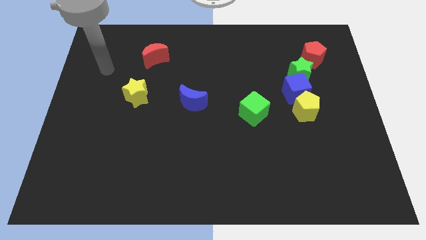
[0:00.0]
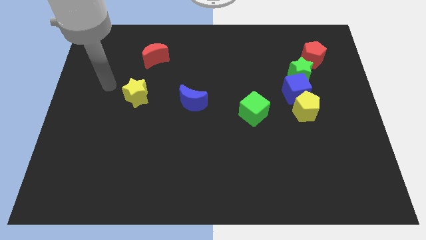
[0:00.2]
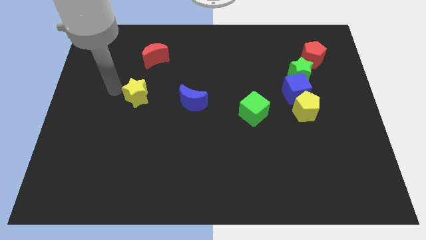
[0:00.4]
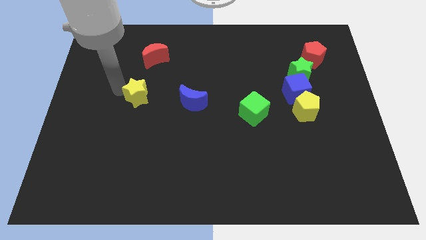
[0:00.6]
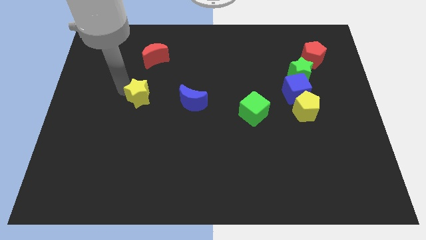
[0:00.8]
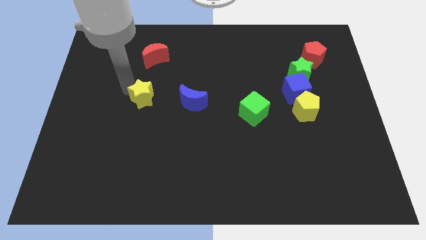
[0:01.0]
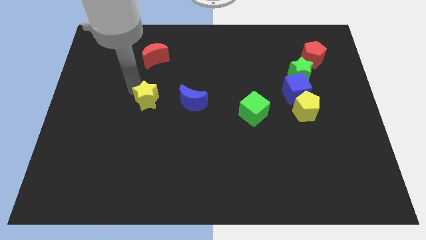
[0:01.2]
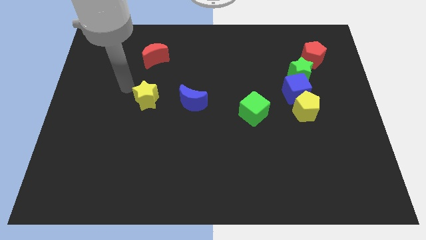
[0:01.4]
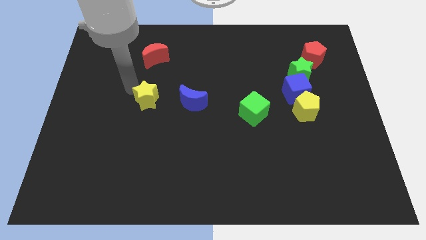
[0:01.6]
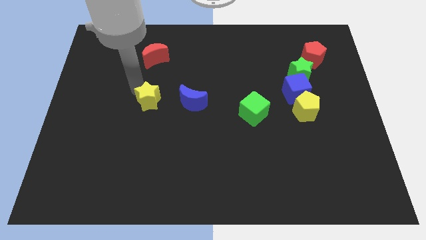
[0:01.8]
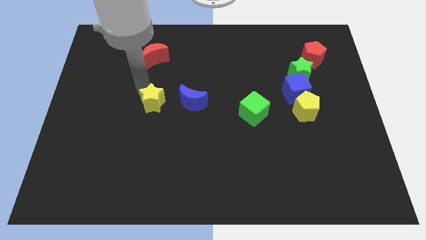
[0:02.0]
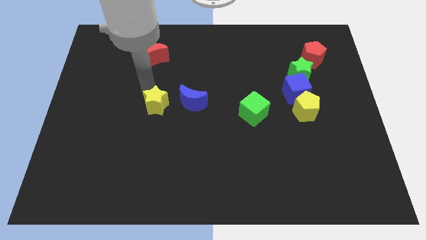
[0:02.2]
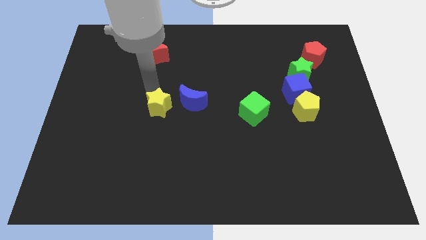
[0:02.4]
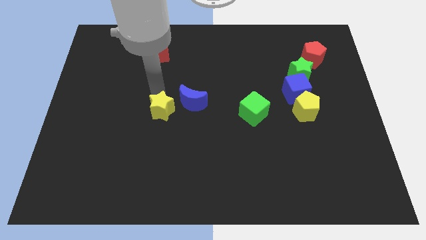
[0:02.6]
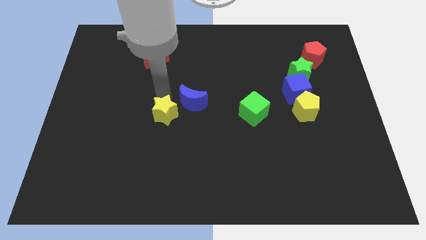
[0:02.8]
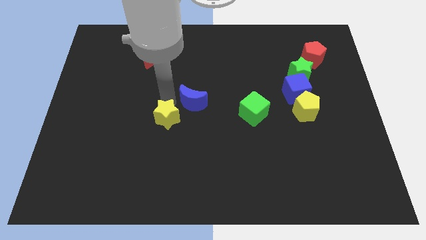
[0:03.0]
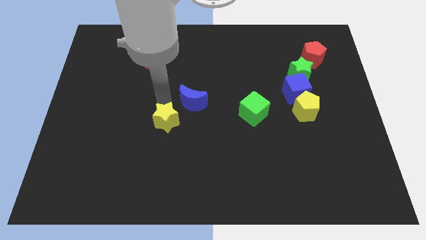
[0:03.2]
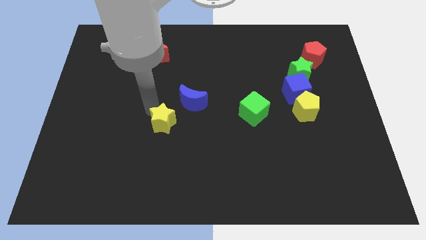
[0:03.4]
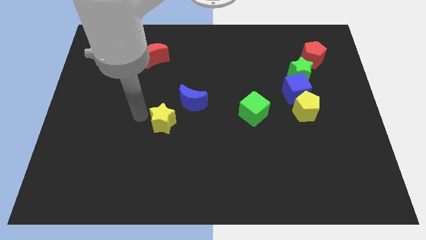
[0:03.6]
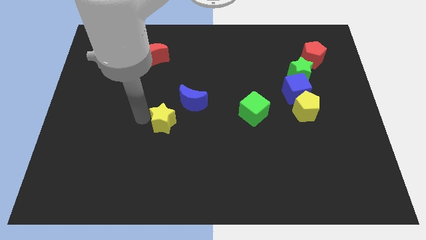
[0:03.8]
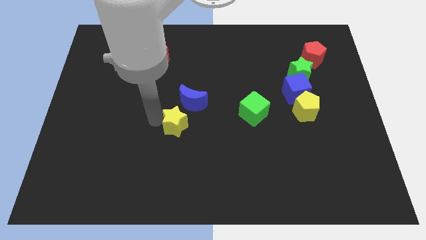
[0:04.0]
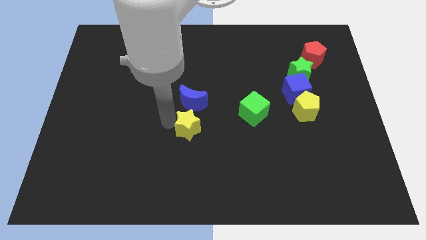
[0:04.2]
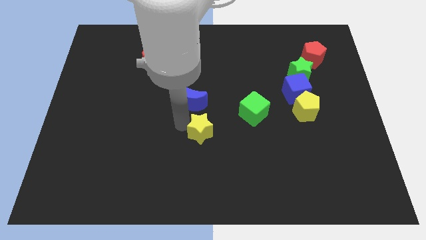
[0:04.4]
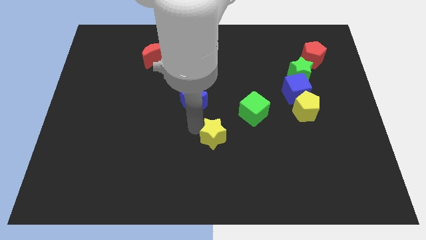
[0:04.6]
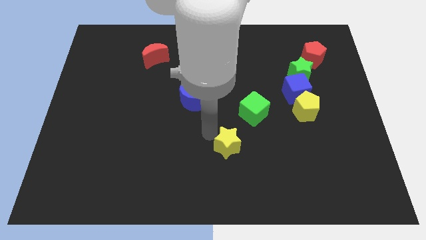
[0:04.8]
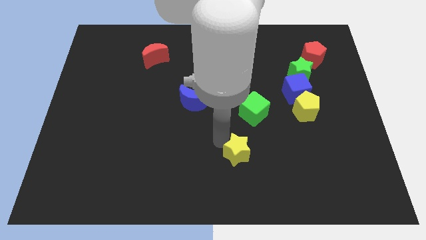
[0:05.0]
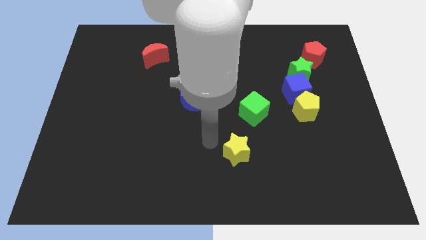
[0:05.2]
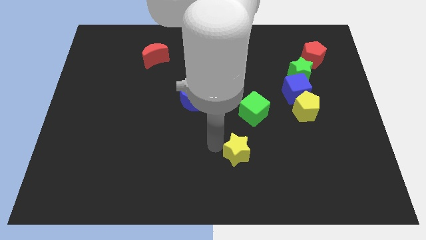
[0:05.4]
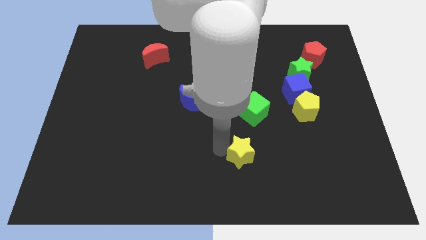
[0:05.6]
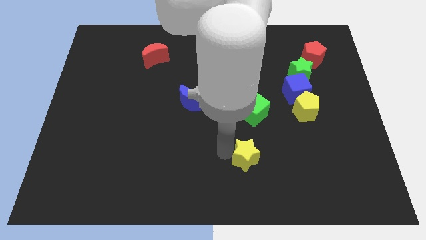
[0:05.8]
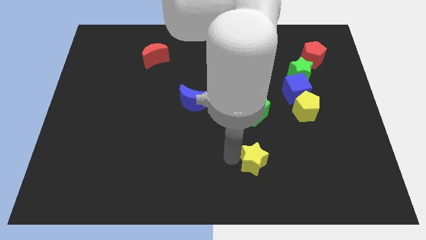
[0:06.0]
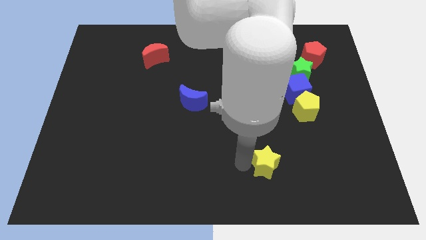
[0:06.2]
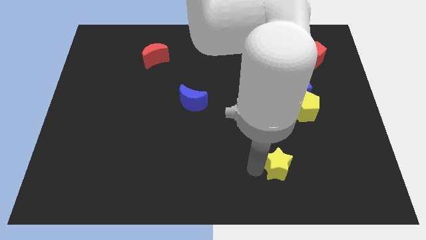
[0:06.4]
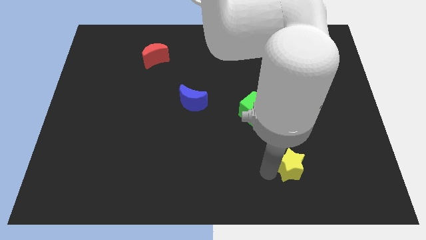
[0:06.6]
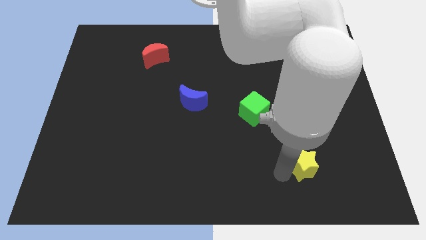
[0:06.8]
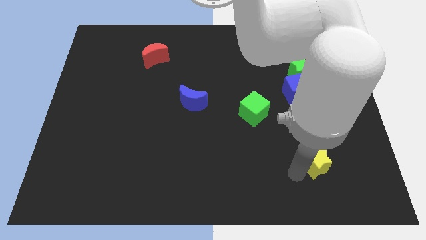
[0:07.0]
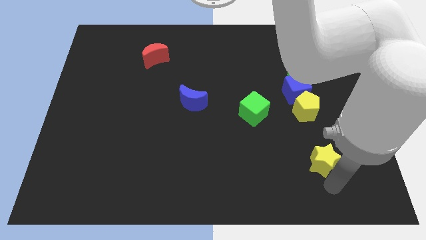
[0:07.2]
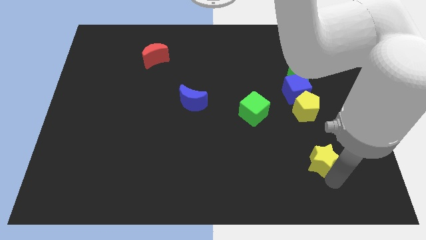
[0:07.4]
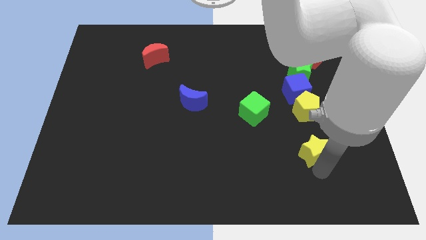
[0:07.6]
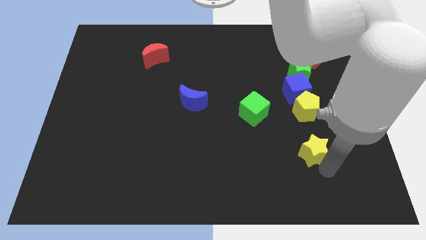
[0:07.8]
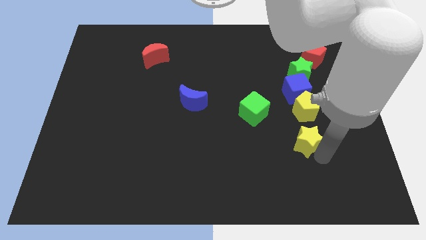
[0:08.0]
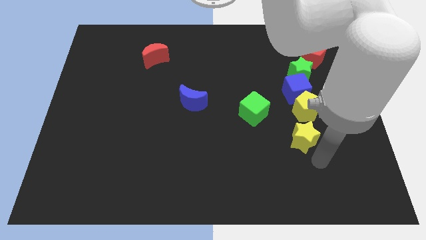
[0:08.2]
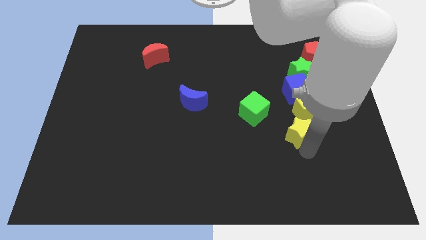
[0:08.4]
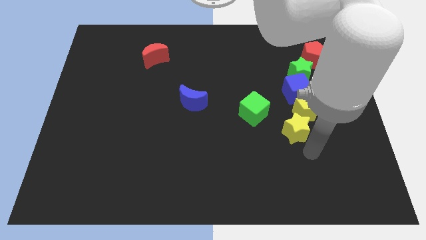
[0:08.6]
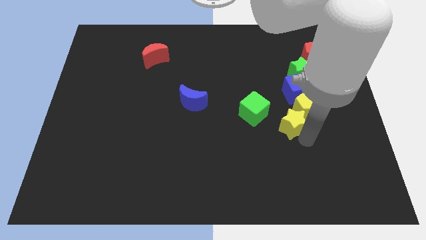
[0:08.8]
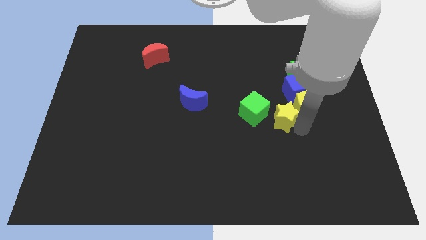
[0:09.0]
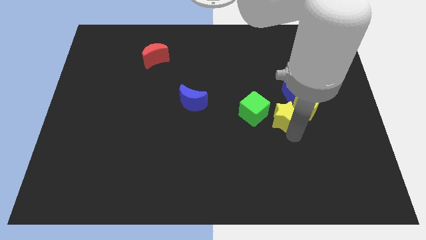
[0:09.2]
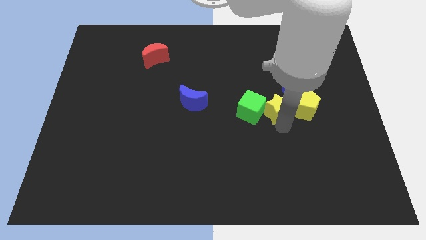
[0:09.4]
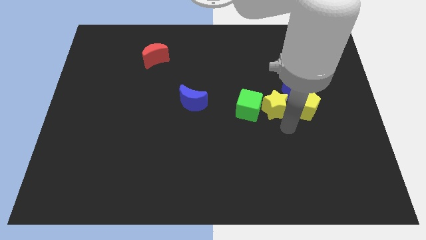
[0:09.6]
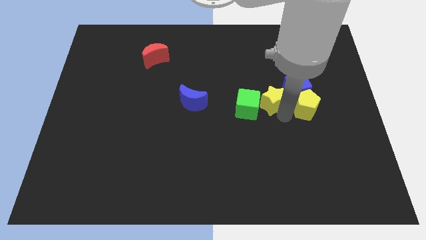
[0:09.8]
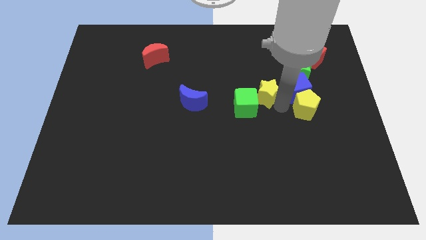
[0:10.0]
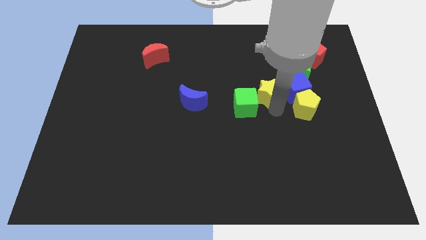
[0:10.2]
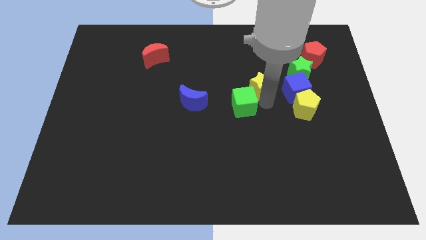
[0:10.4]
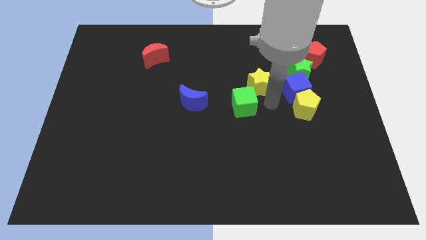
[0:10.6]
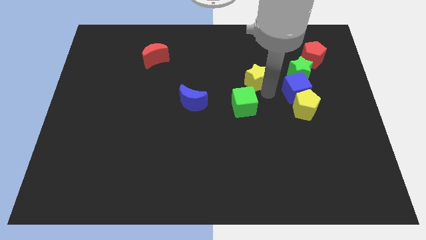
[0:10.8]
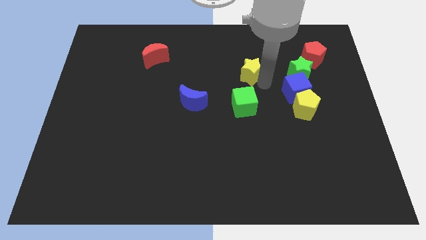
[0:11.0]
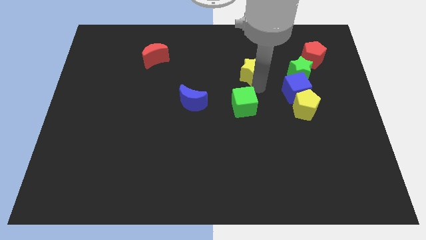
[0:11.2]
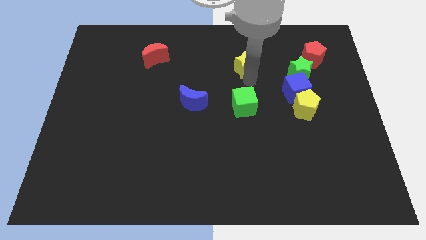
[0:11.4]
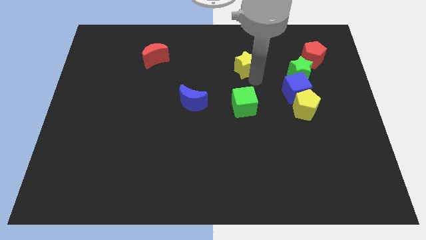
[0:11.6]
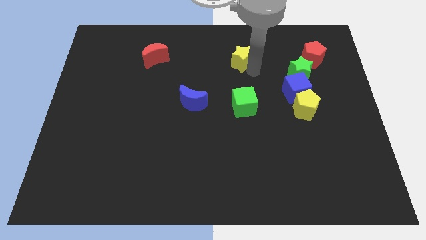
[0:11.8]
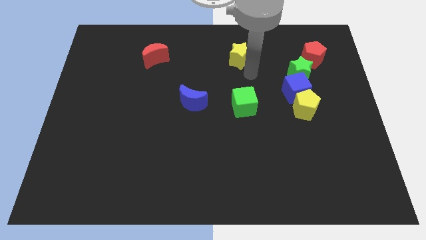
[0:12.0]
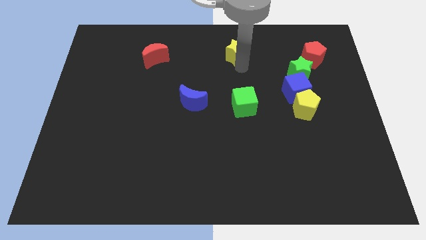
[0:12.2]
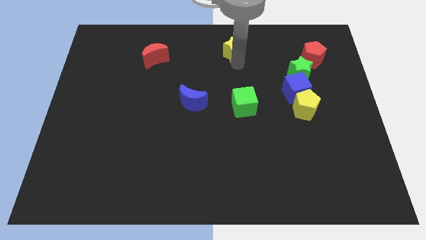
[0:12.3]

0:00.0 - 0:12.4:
push the yellow star to the towards your base

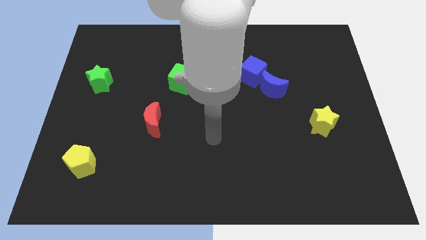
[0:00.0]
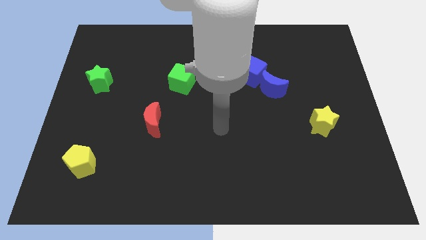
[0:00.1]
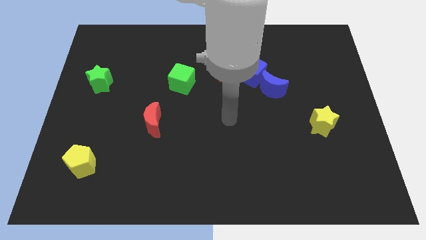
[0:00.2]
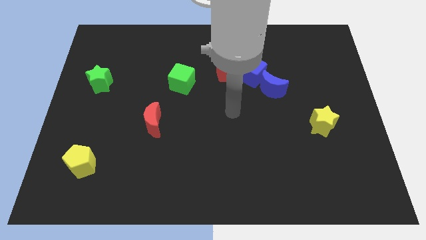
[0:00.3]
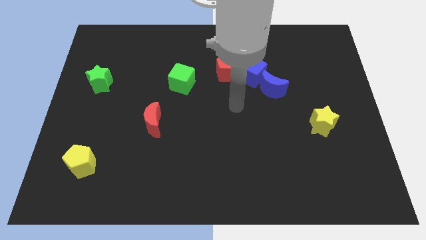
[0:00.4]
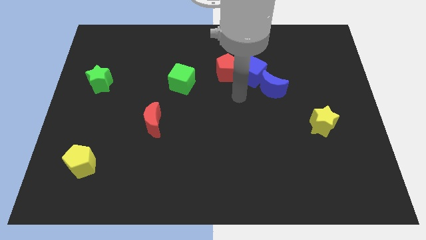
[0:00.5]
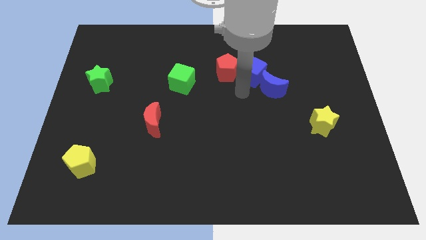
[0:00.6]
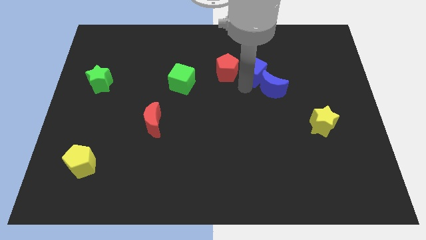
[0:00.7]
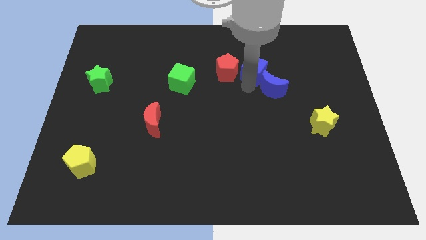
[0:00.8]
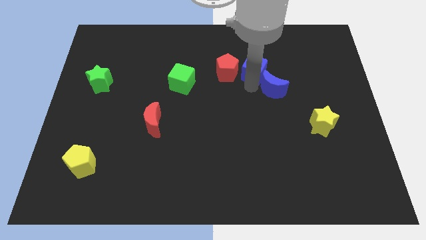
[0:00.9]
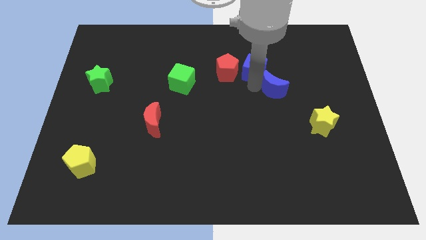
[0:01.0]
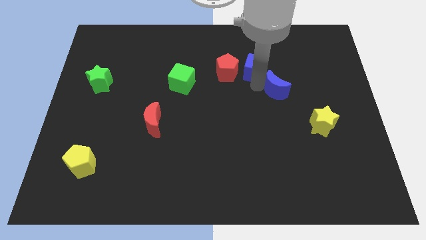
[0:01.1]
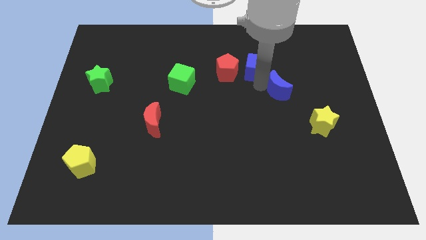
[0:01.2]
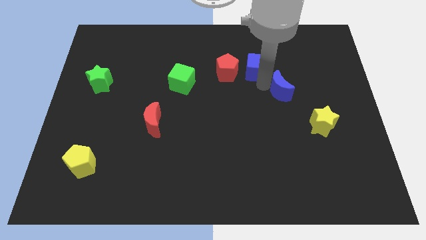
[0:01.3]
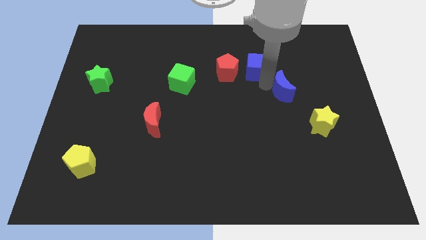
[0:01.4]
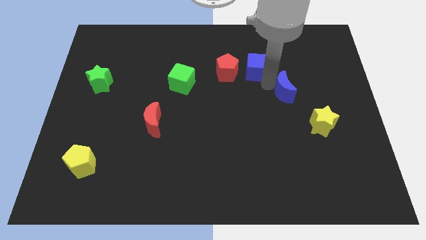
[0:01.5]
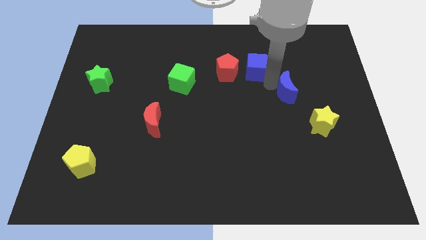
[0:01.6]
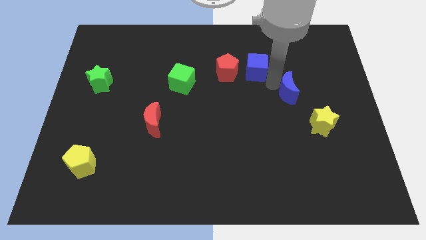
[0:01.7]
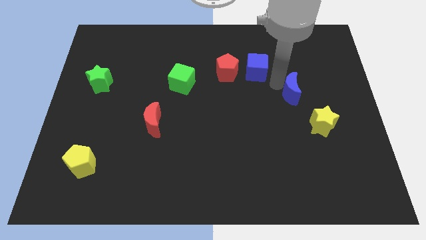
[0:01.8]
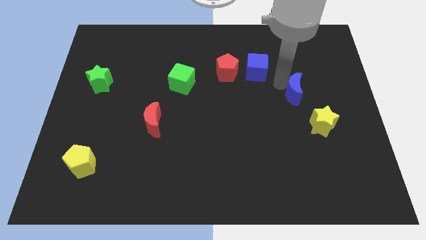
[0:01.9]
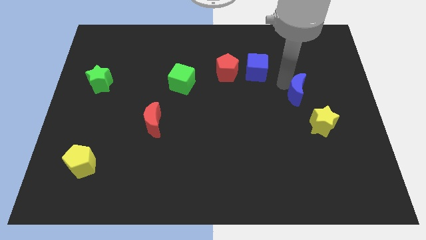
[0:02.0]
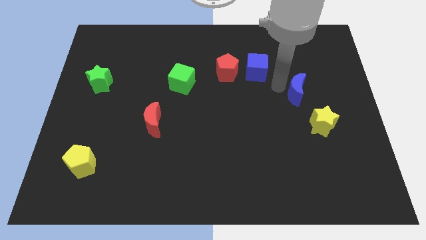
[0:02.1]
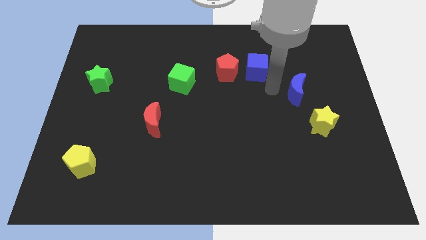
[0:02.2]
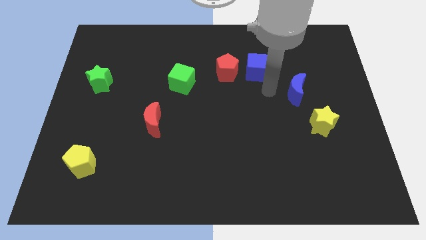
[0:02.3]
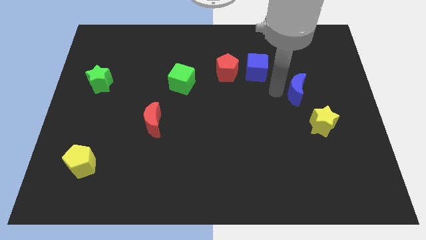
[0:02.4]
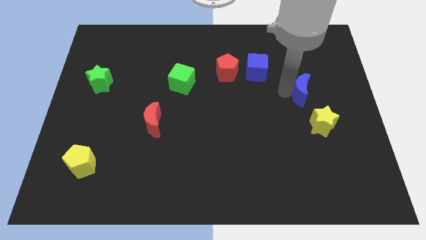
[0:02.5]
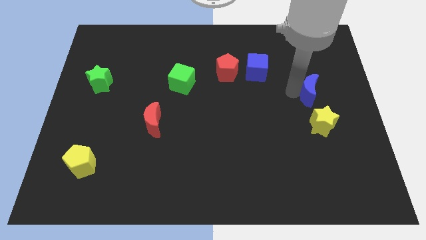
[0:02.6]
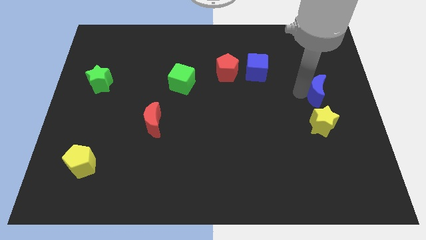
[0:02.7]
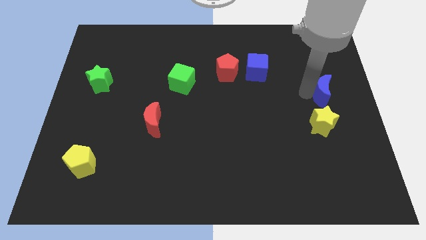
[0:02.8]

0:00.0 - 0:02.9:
slide the blue moon to the right side of the board
